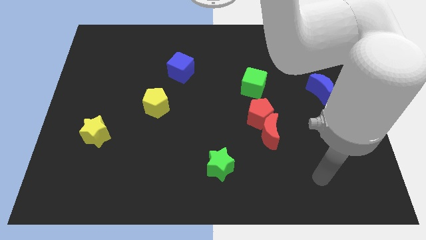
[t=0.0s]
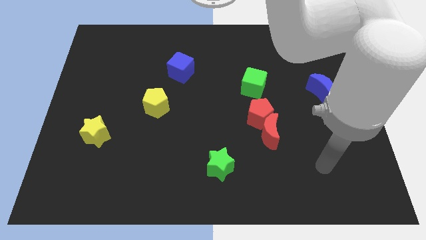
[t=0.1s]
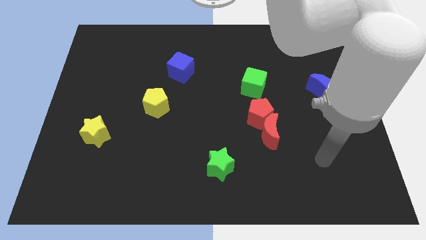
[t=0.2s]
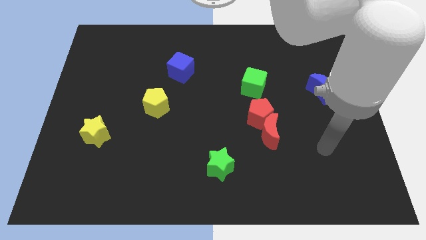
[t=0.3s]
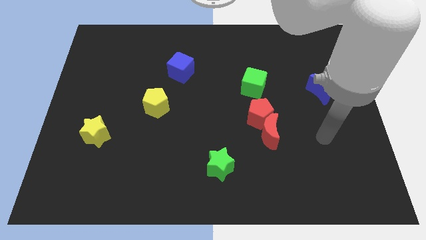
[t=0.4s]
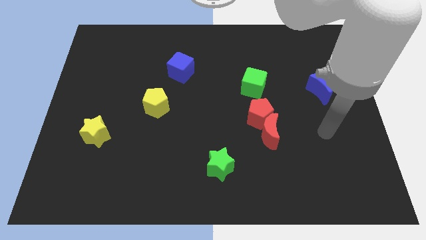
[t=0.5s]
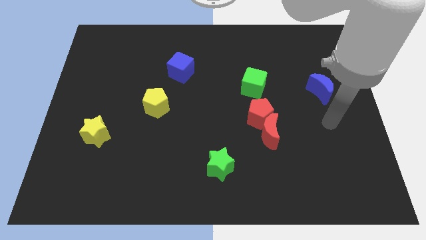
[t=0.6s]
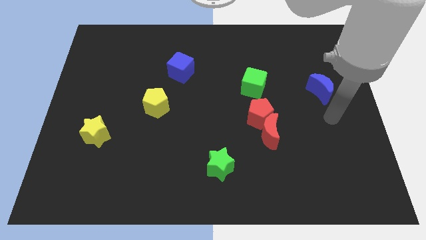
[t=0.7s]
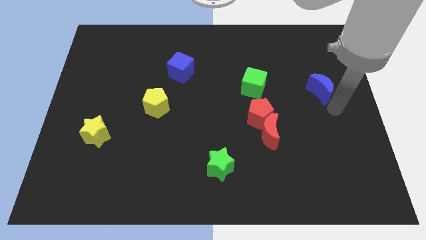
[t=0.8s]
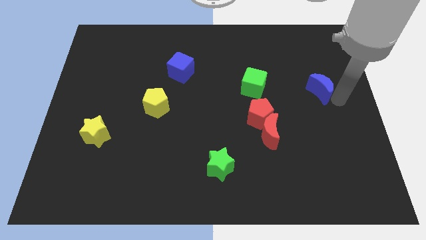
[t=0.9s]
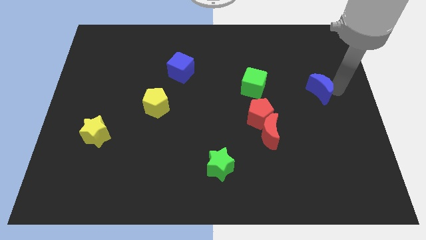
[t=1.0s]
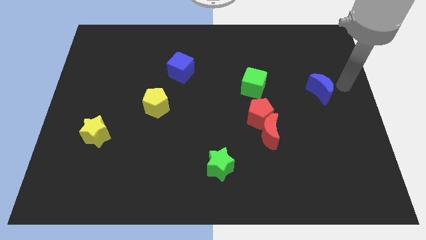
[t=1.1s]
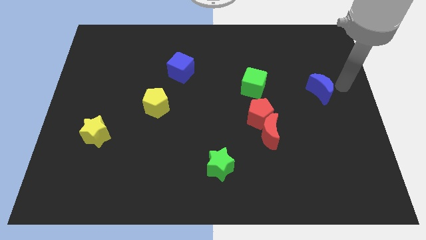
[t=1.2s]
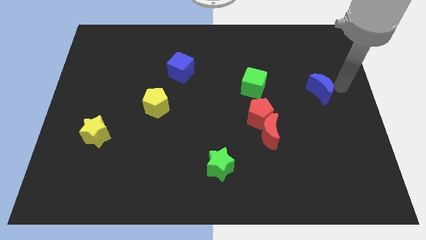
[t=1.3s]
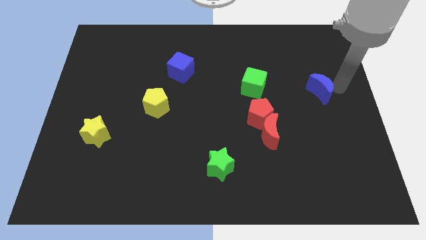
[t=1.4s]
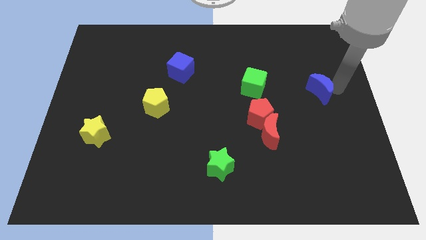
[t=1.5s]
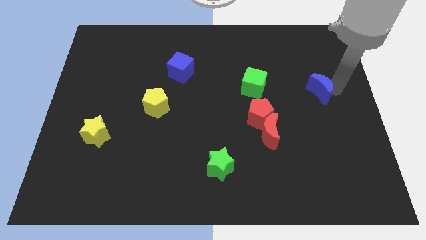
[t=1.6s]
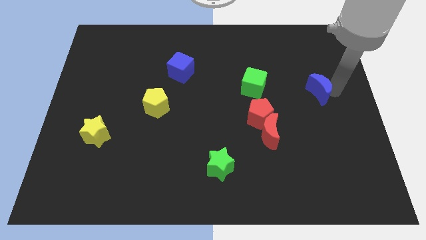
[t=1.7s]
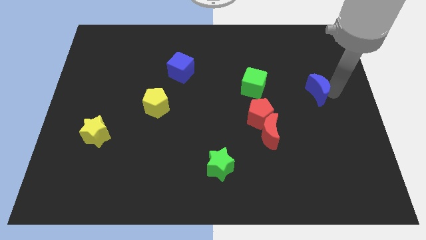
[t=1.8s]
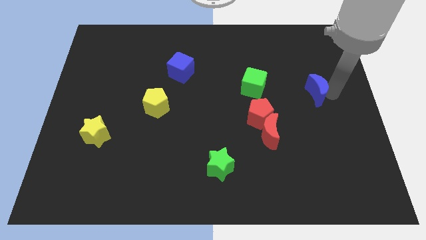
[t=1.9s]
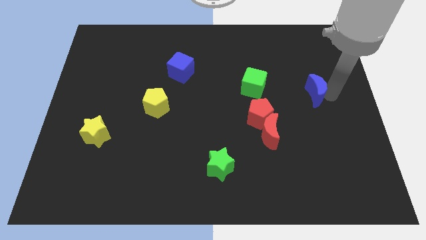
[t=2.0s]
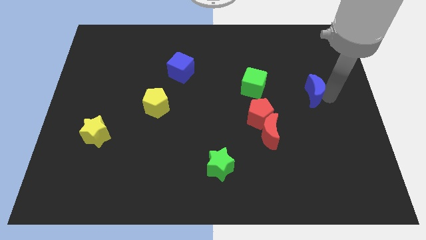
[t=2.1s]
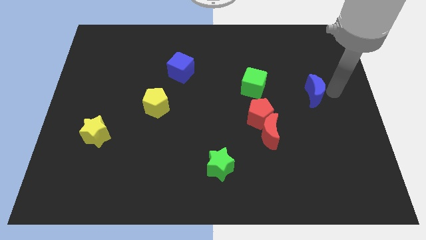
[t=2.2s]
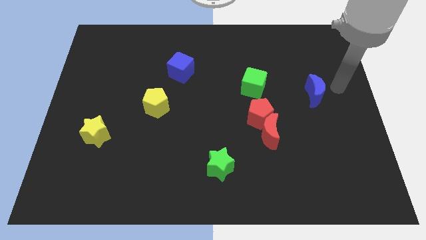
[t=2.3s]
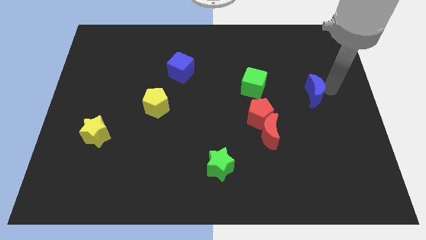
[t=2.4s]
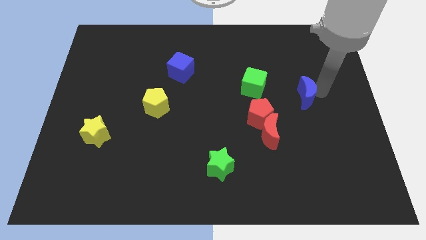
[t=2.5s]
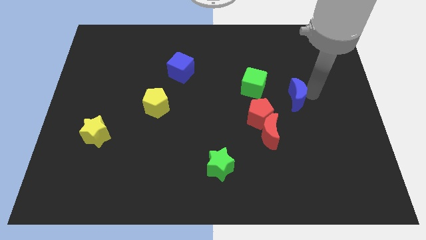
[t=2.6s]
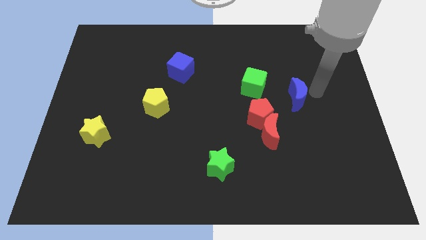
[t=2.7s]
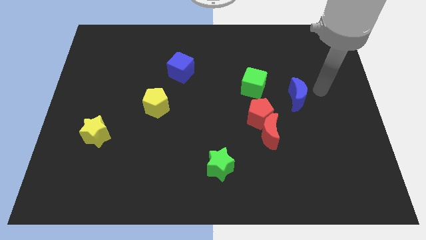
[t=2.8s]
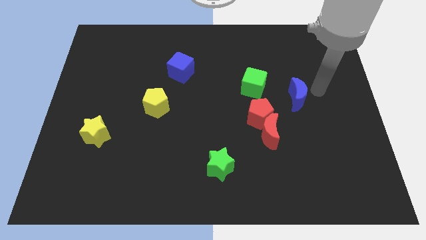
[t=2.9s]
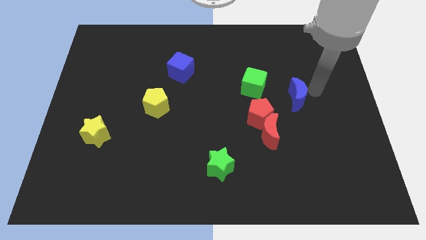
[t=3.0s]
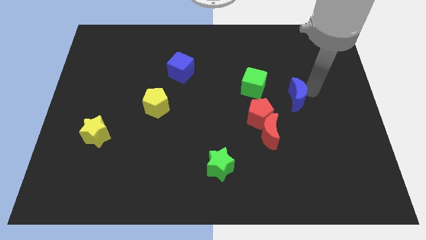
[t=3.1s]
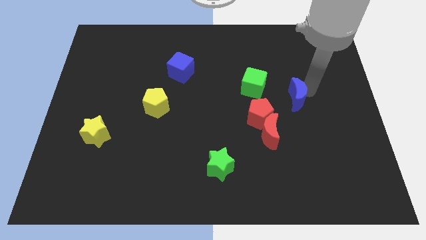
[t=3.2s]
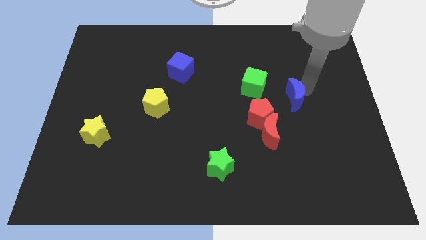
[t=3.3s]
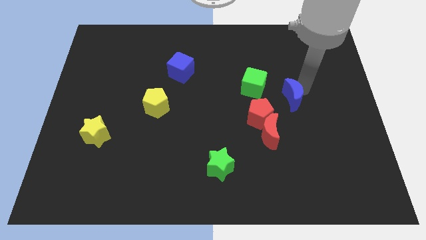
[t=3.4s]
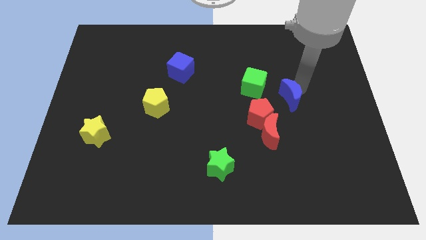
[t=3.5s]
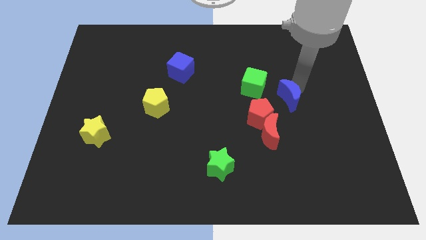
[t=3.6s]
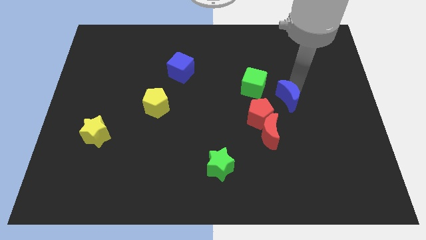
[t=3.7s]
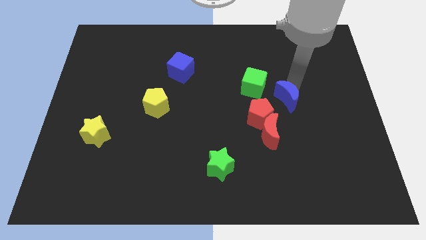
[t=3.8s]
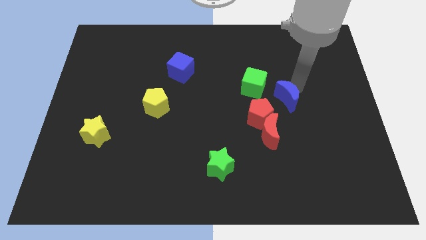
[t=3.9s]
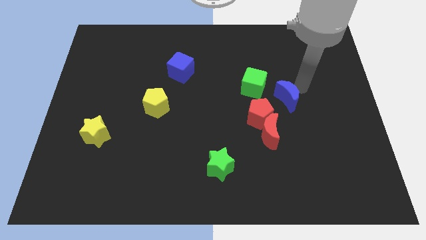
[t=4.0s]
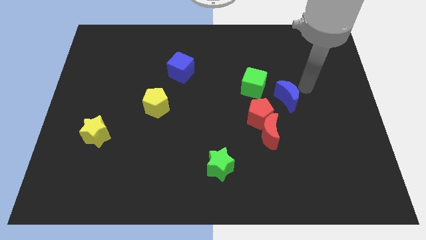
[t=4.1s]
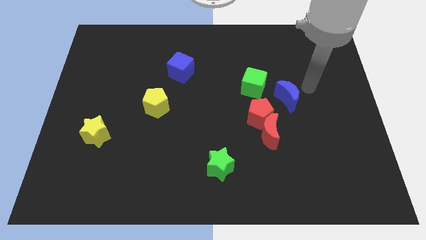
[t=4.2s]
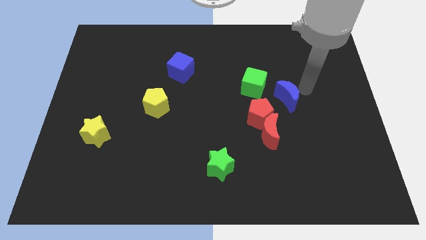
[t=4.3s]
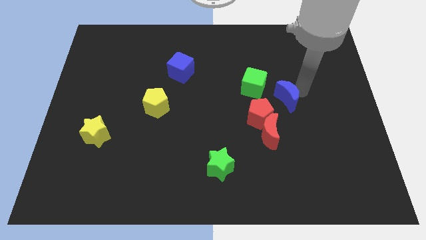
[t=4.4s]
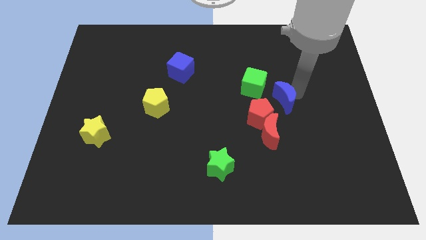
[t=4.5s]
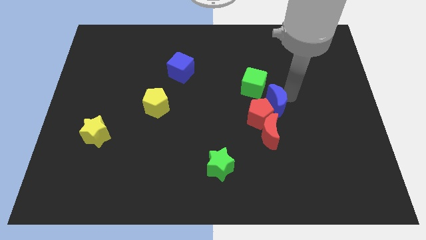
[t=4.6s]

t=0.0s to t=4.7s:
slide the blue moon close to the red pentagon

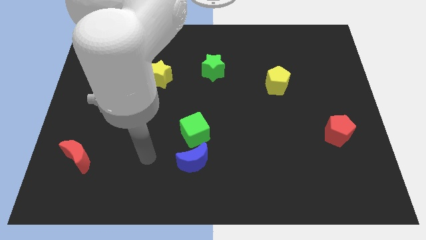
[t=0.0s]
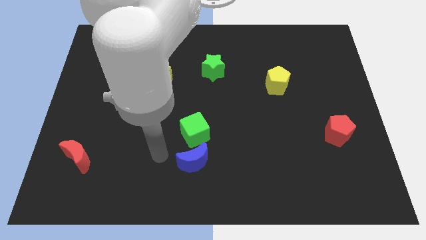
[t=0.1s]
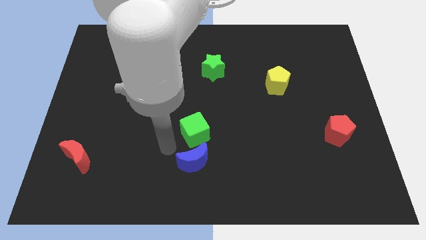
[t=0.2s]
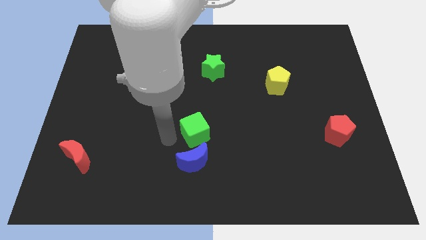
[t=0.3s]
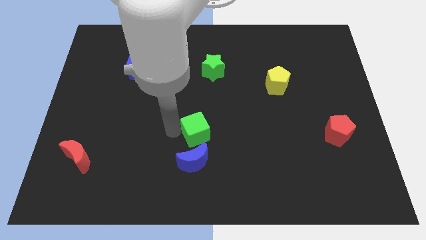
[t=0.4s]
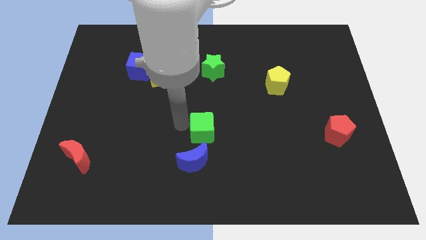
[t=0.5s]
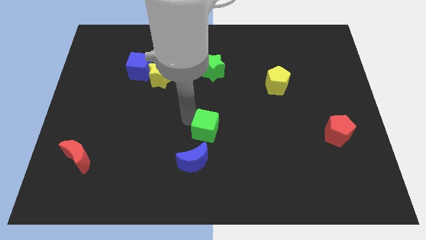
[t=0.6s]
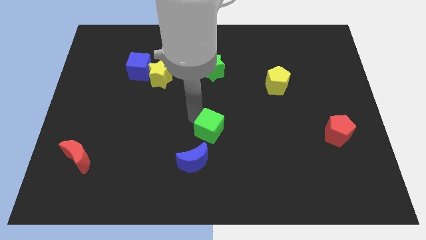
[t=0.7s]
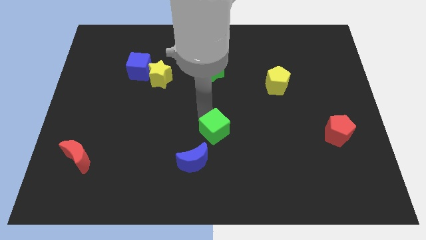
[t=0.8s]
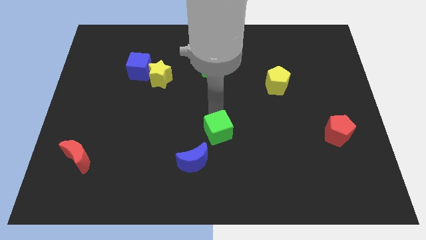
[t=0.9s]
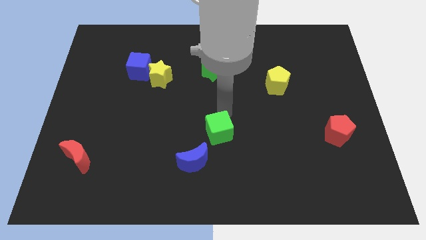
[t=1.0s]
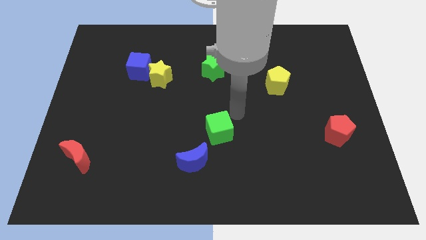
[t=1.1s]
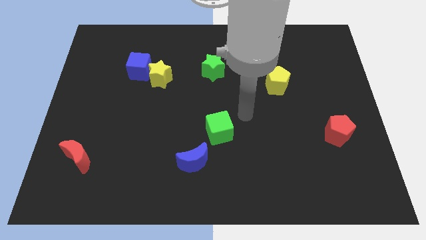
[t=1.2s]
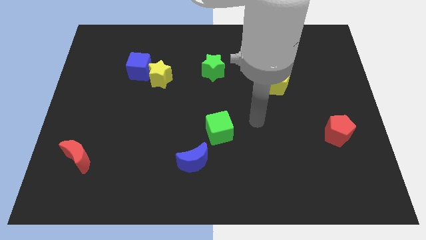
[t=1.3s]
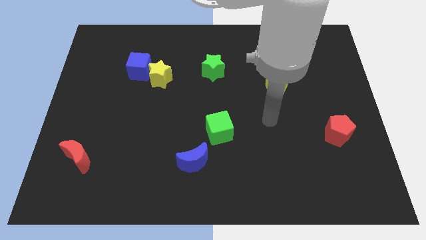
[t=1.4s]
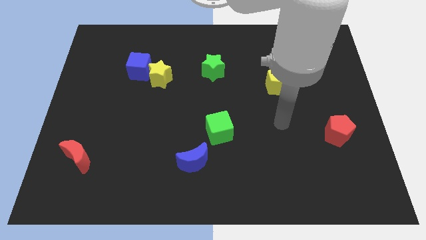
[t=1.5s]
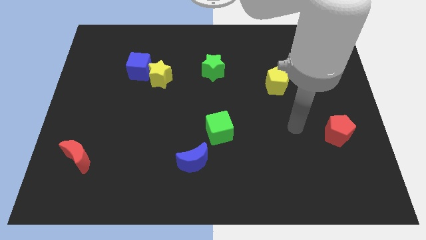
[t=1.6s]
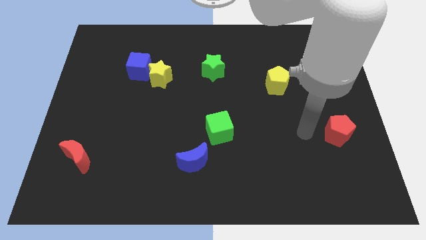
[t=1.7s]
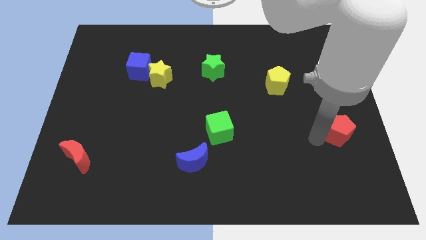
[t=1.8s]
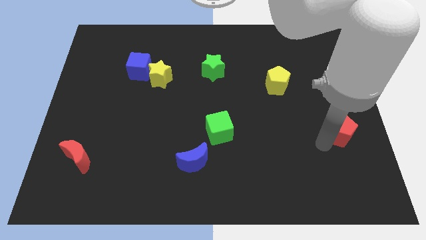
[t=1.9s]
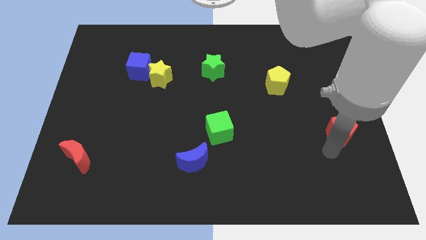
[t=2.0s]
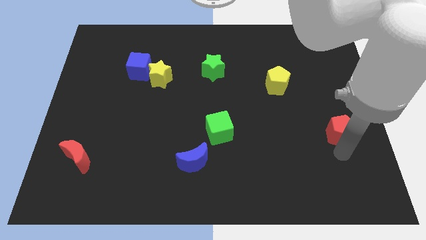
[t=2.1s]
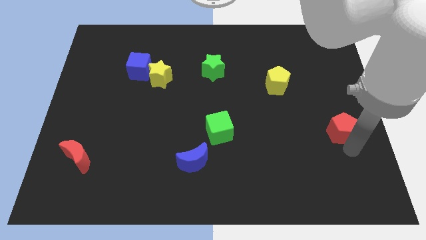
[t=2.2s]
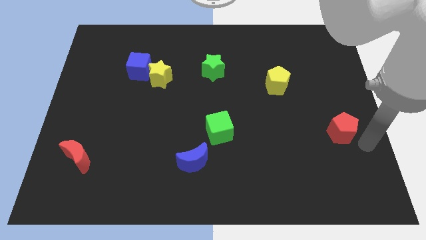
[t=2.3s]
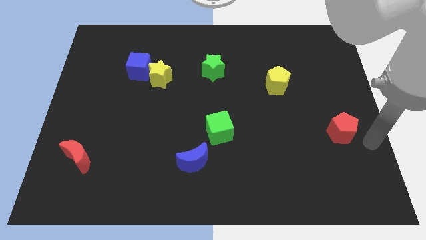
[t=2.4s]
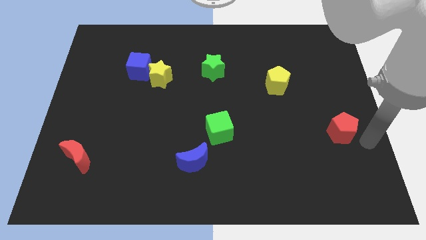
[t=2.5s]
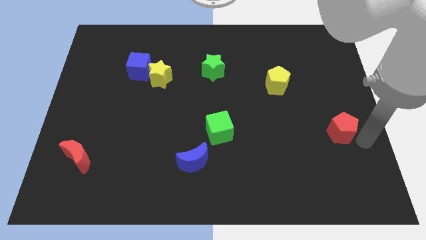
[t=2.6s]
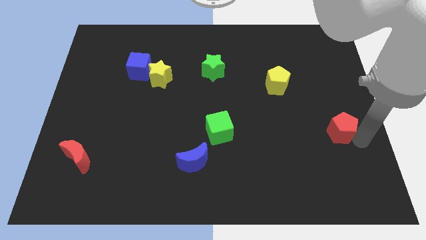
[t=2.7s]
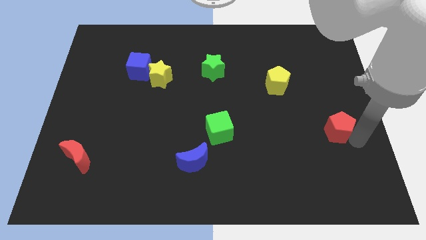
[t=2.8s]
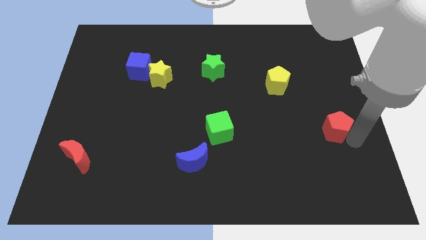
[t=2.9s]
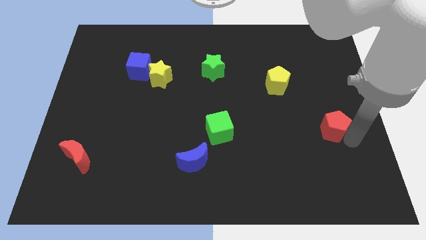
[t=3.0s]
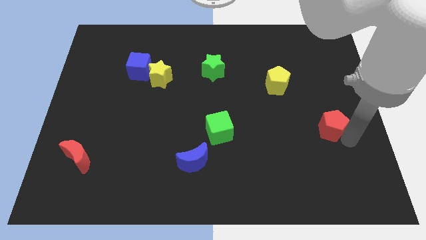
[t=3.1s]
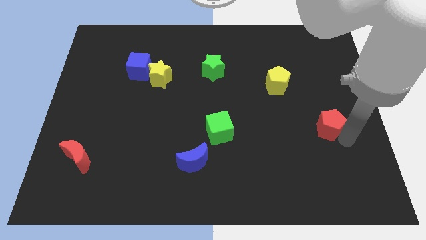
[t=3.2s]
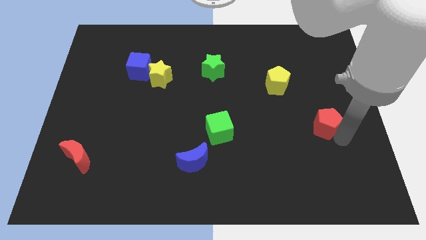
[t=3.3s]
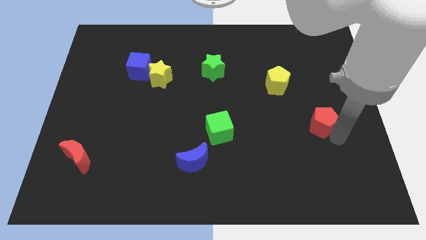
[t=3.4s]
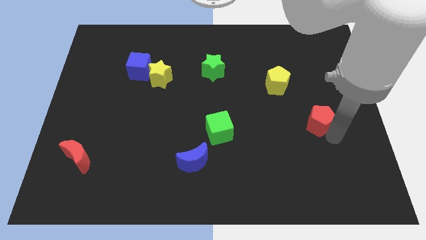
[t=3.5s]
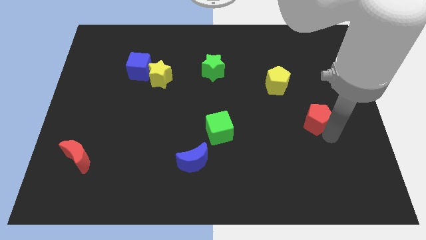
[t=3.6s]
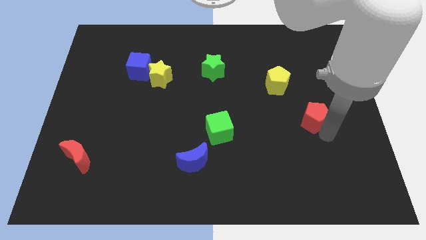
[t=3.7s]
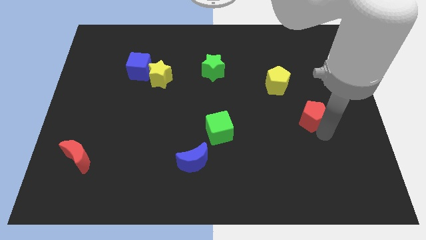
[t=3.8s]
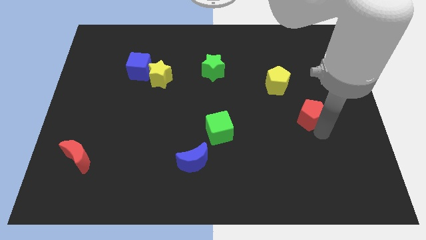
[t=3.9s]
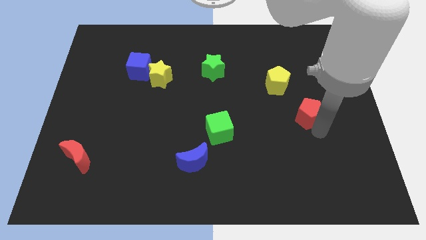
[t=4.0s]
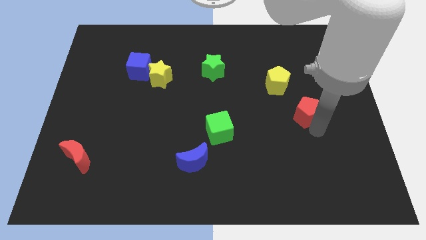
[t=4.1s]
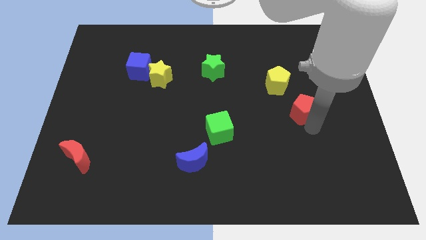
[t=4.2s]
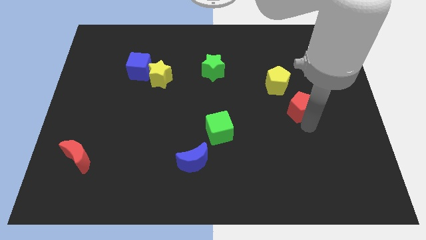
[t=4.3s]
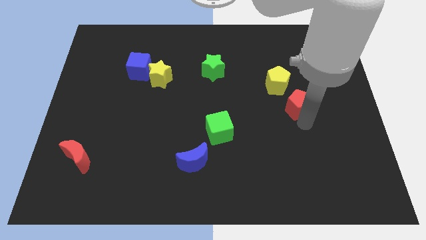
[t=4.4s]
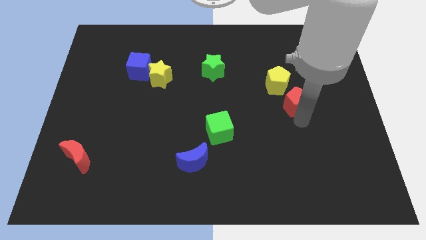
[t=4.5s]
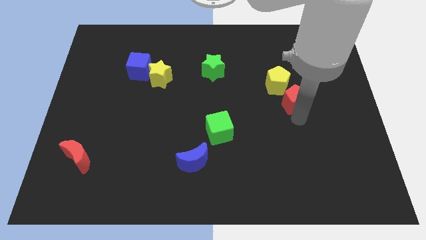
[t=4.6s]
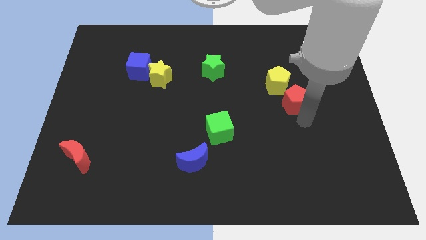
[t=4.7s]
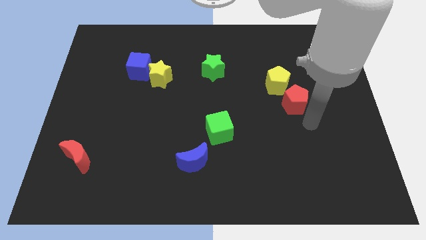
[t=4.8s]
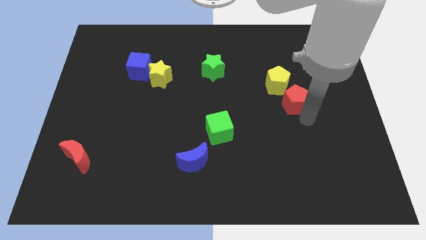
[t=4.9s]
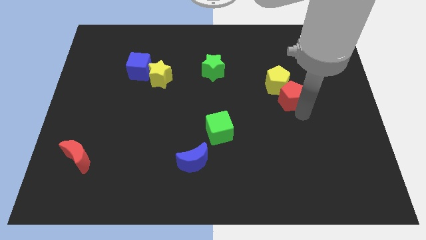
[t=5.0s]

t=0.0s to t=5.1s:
slide the red pentagon next to the yellow pentagon
